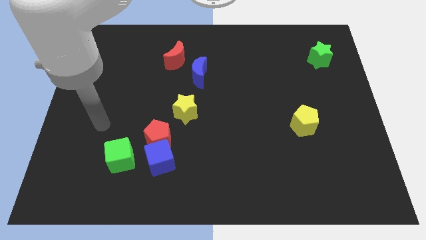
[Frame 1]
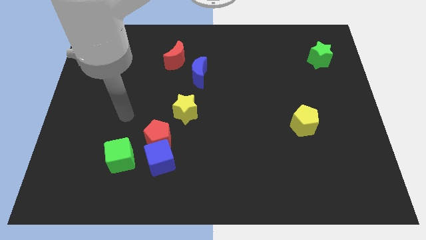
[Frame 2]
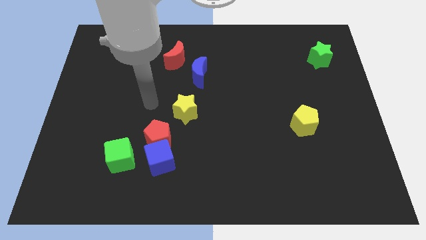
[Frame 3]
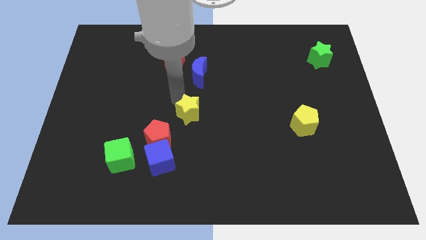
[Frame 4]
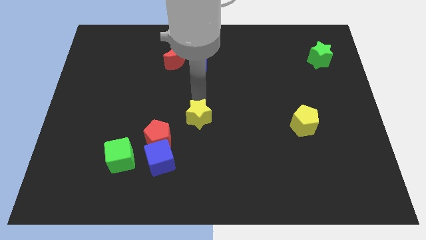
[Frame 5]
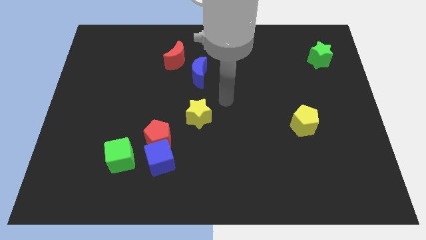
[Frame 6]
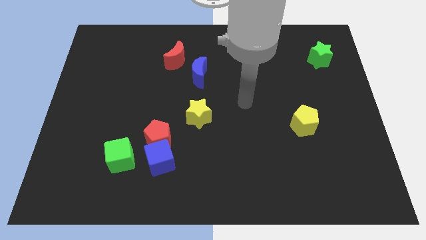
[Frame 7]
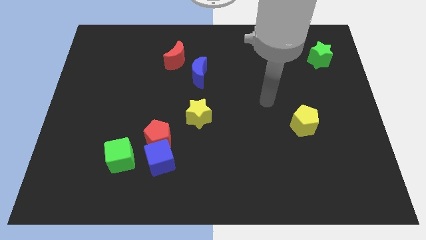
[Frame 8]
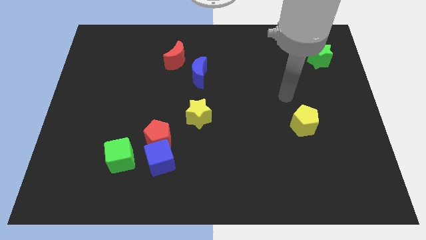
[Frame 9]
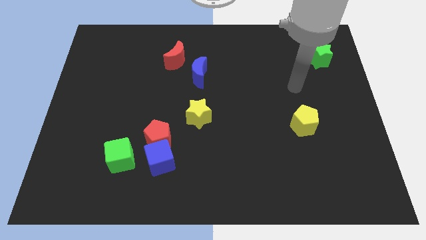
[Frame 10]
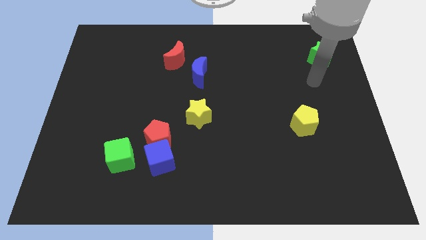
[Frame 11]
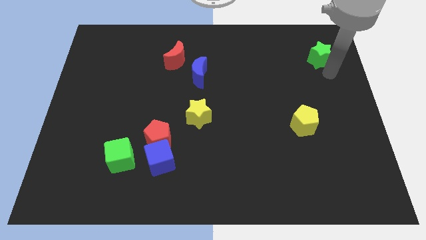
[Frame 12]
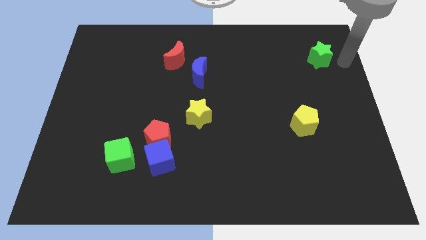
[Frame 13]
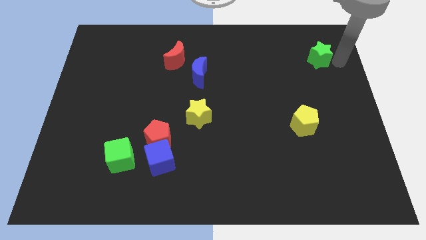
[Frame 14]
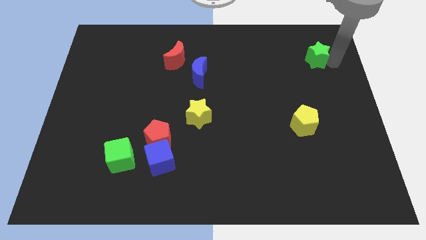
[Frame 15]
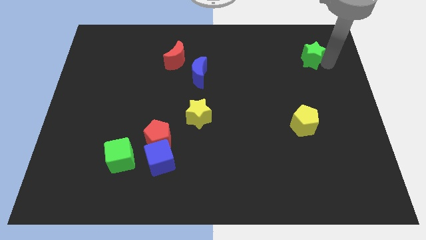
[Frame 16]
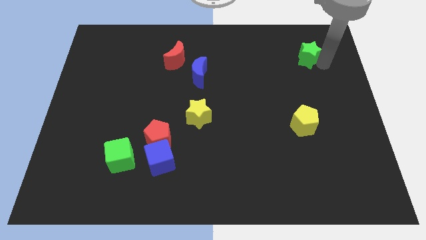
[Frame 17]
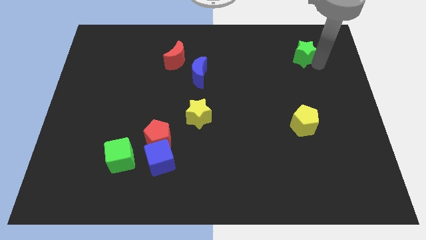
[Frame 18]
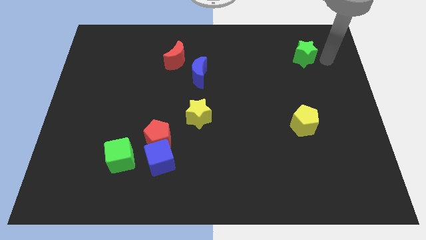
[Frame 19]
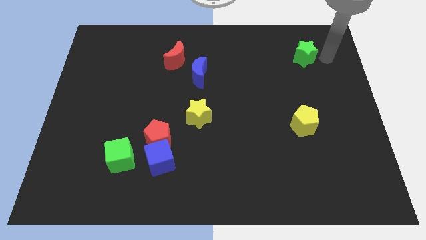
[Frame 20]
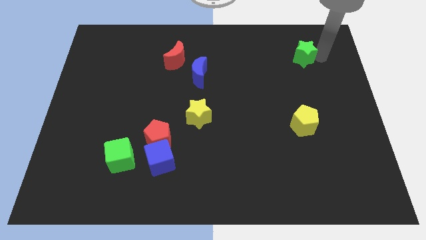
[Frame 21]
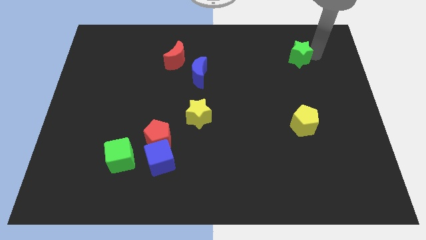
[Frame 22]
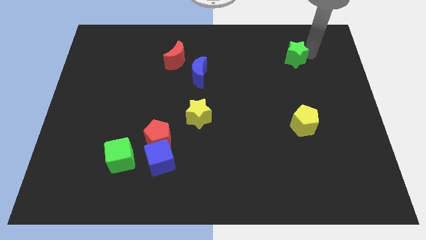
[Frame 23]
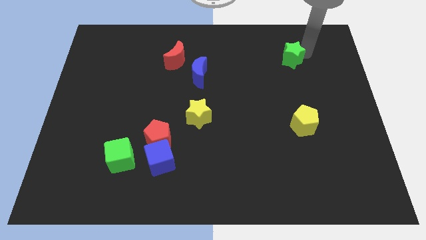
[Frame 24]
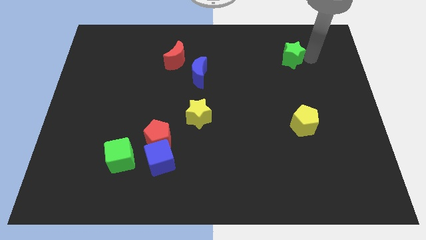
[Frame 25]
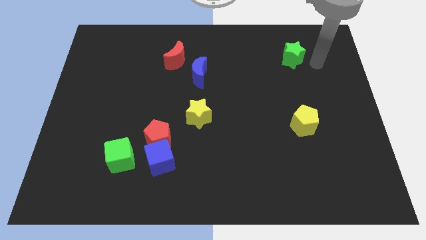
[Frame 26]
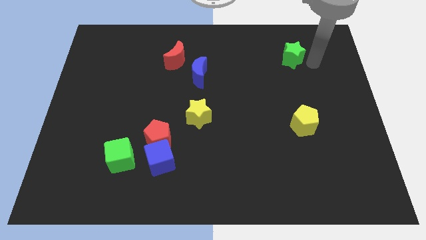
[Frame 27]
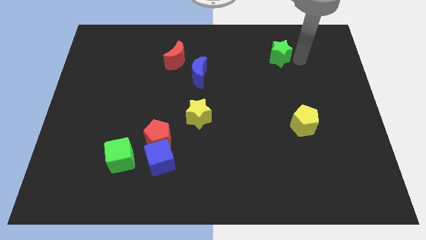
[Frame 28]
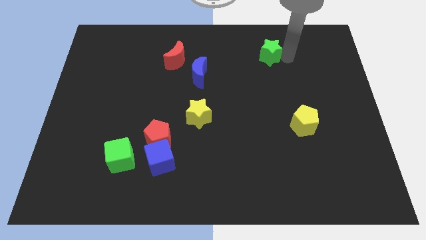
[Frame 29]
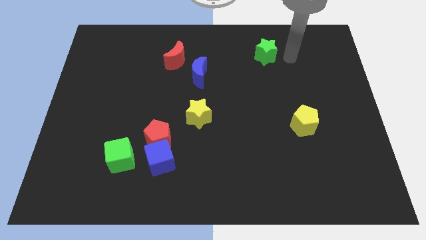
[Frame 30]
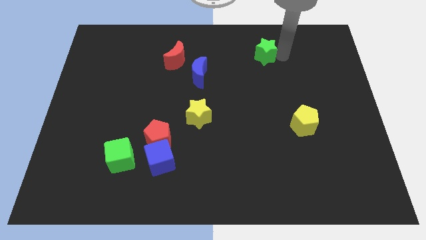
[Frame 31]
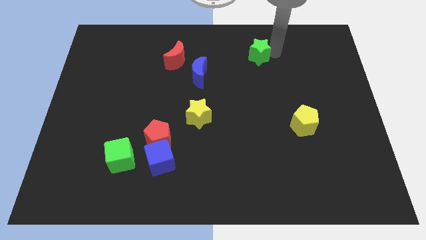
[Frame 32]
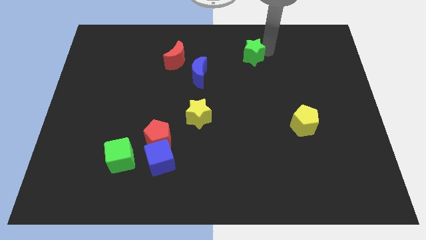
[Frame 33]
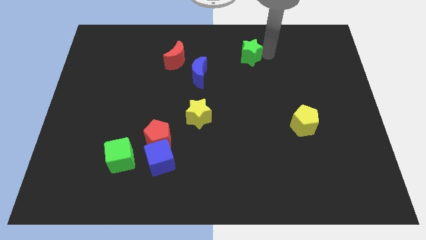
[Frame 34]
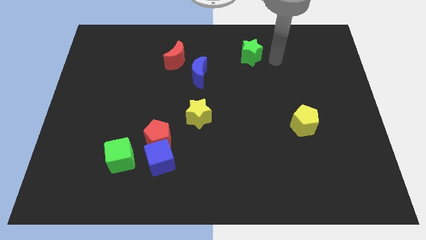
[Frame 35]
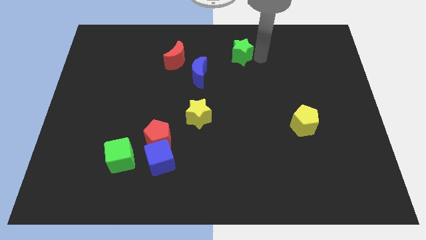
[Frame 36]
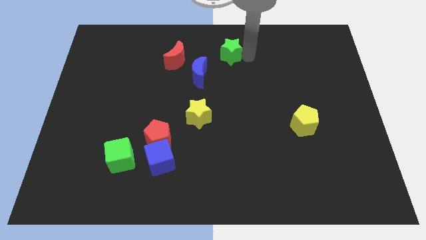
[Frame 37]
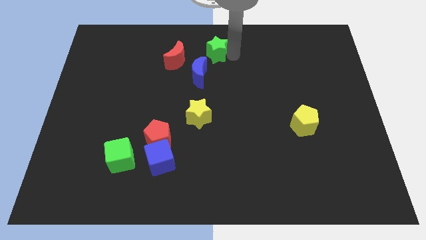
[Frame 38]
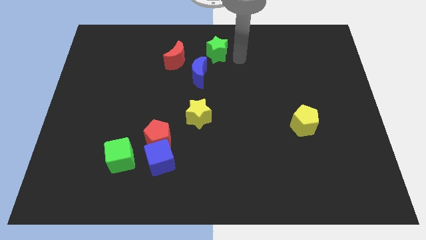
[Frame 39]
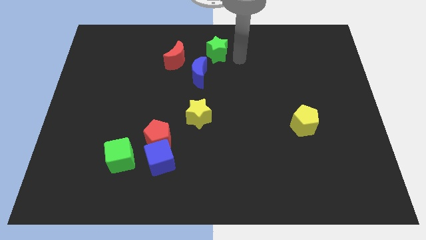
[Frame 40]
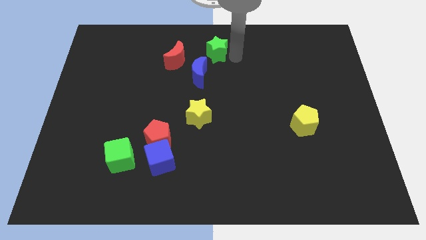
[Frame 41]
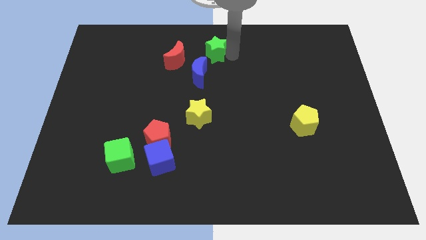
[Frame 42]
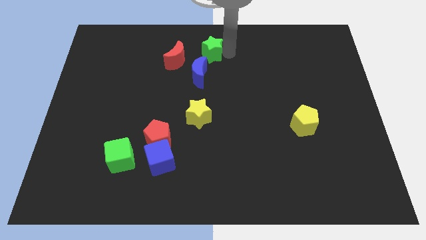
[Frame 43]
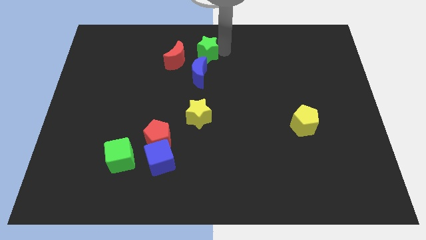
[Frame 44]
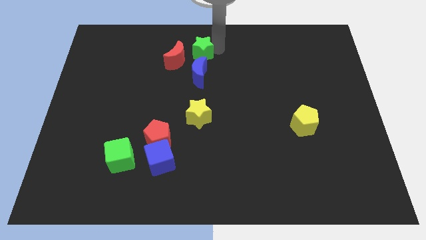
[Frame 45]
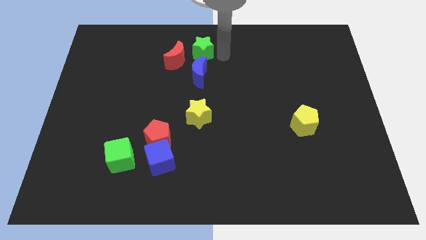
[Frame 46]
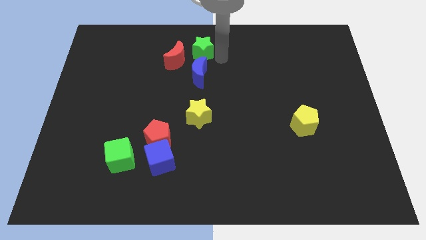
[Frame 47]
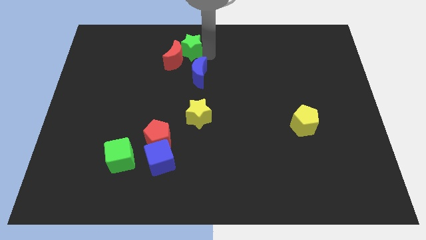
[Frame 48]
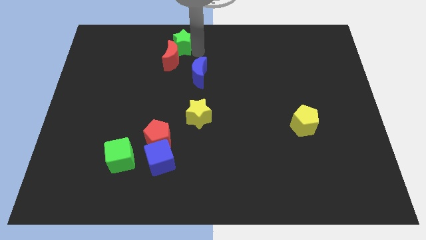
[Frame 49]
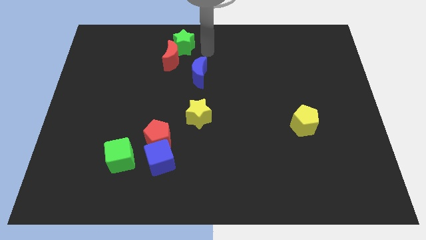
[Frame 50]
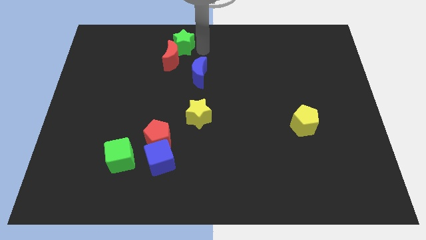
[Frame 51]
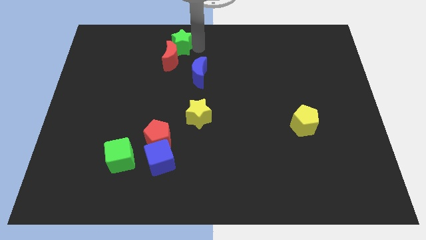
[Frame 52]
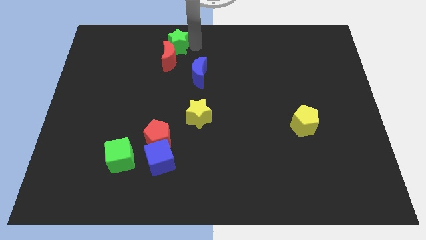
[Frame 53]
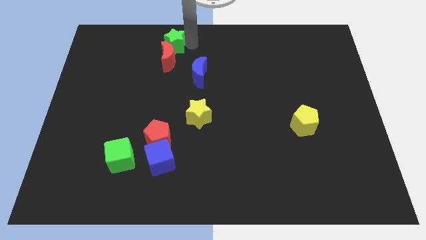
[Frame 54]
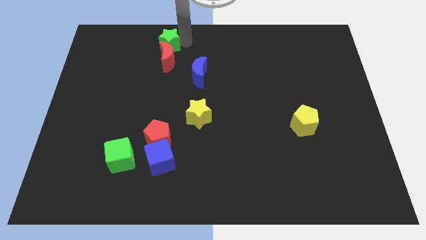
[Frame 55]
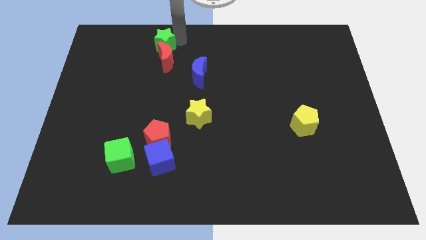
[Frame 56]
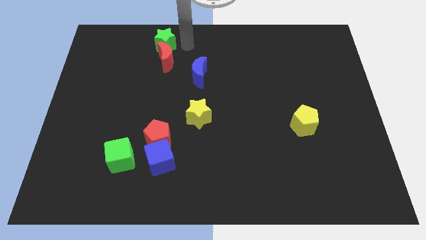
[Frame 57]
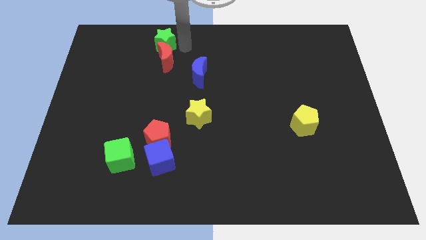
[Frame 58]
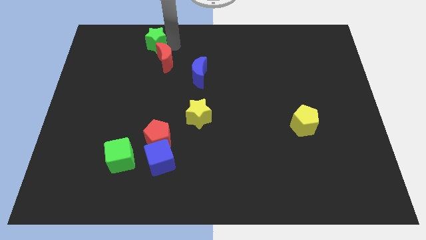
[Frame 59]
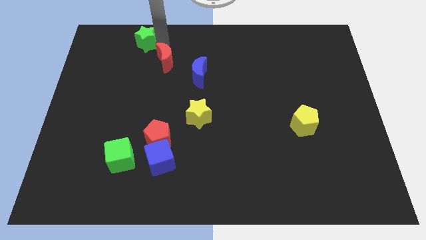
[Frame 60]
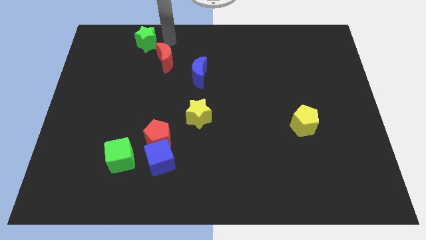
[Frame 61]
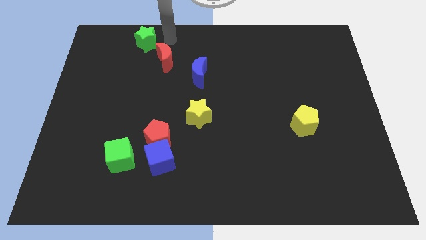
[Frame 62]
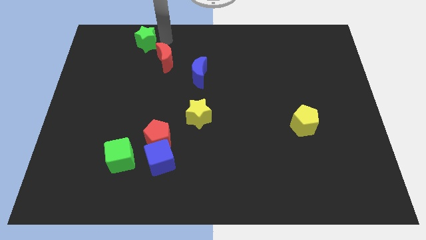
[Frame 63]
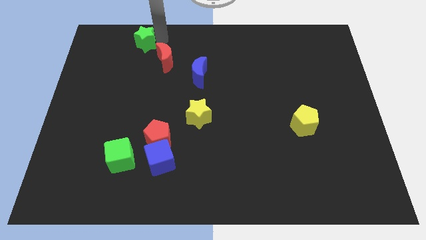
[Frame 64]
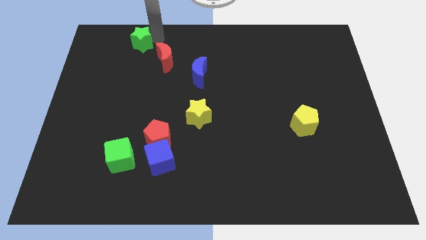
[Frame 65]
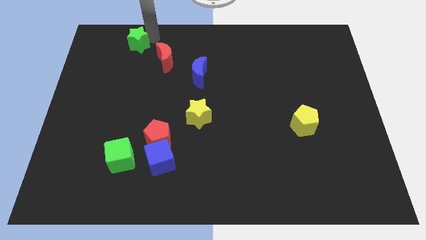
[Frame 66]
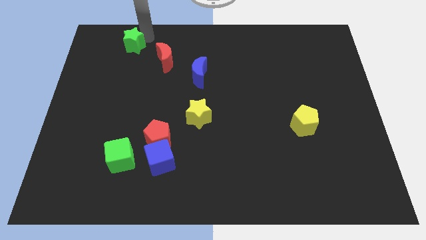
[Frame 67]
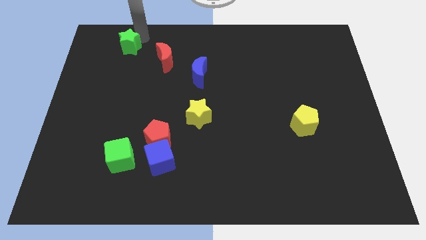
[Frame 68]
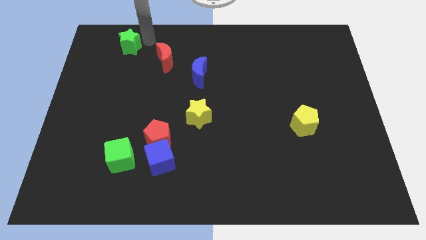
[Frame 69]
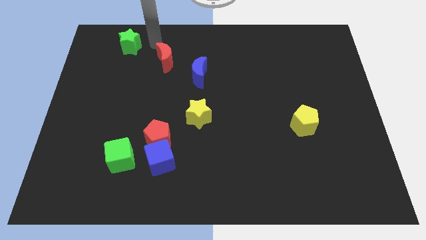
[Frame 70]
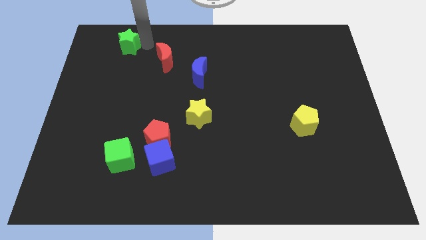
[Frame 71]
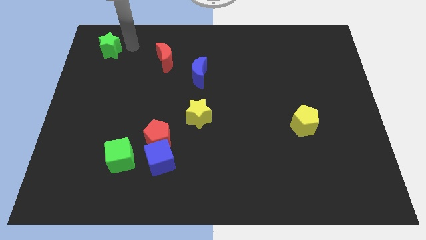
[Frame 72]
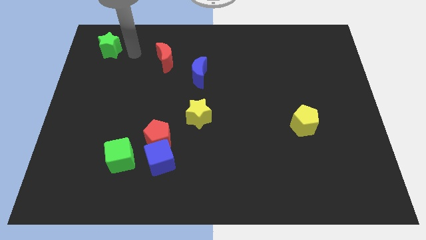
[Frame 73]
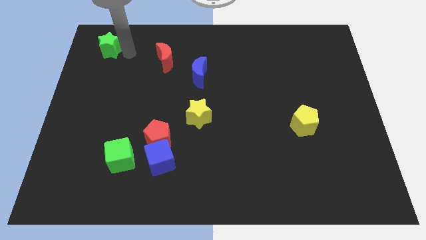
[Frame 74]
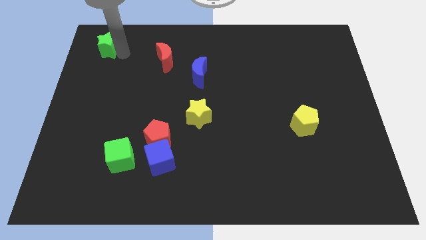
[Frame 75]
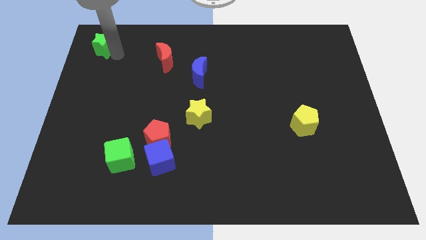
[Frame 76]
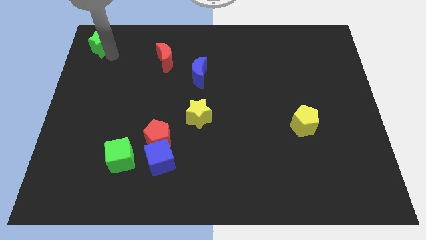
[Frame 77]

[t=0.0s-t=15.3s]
put the green star to the top left
